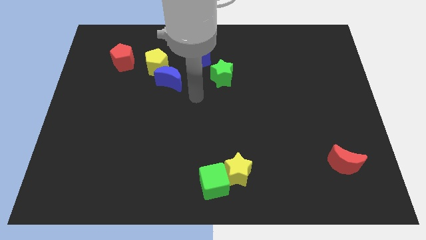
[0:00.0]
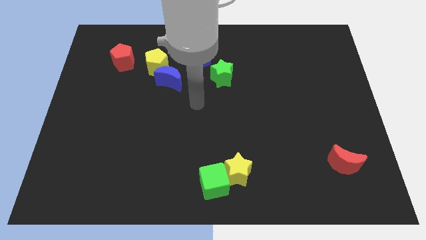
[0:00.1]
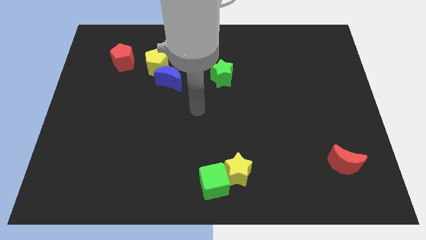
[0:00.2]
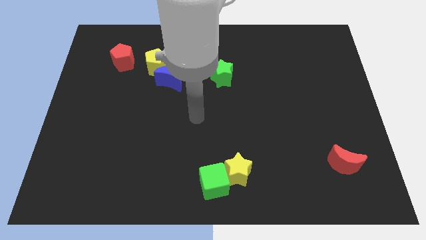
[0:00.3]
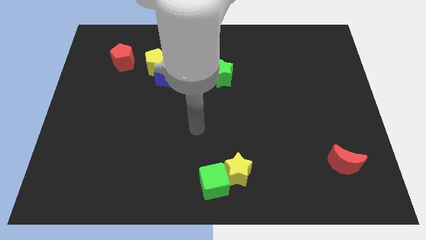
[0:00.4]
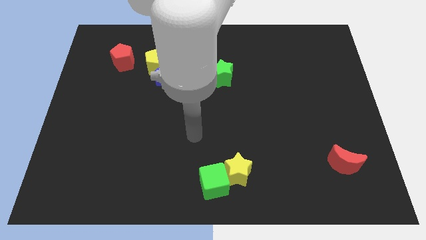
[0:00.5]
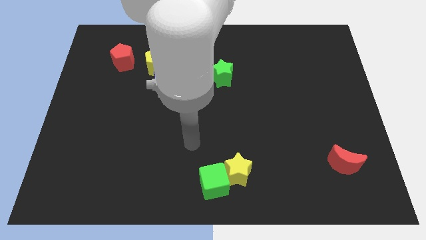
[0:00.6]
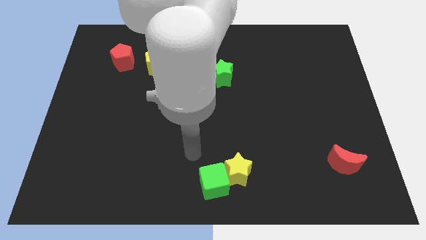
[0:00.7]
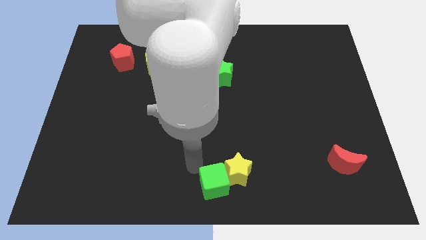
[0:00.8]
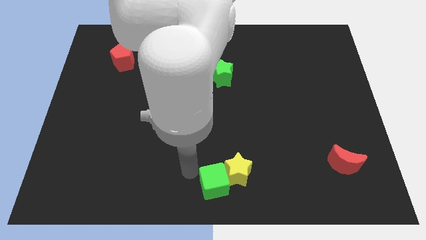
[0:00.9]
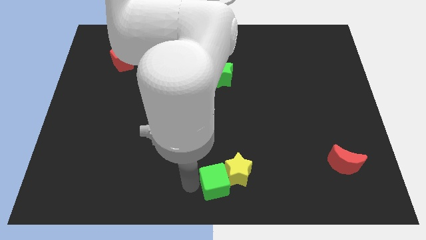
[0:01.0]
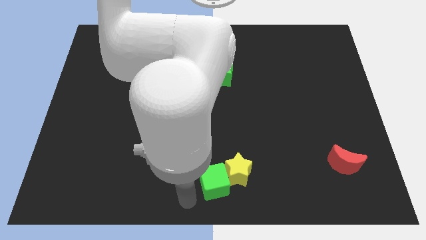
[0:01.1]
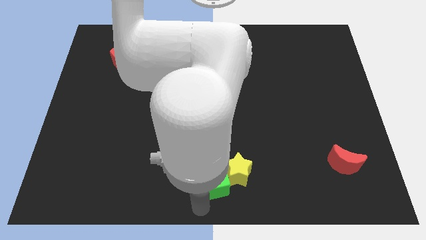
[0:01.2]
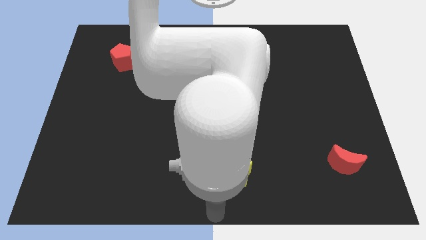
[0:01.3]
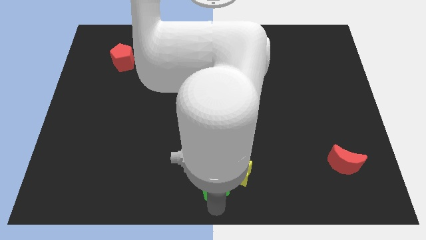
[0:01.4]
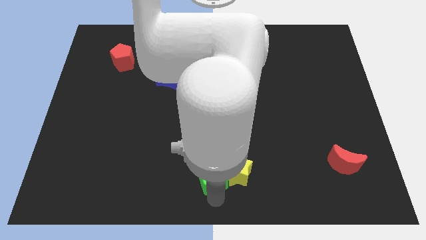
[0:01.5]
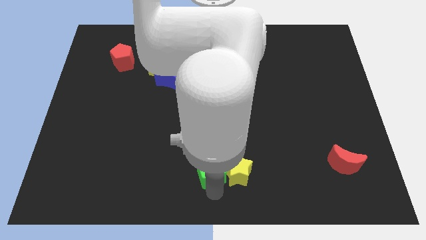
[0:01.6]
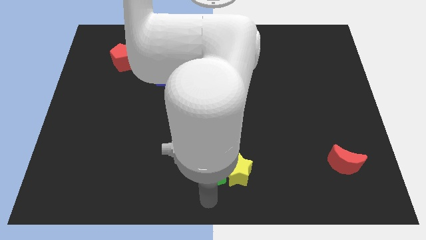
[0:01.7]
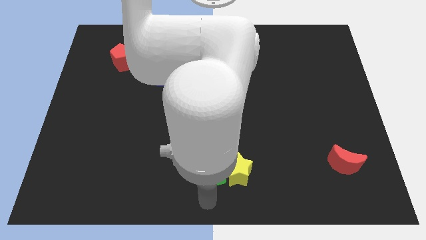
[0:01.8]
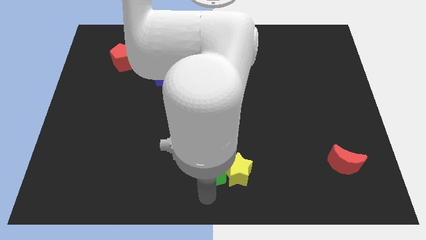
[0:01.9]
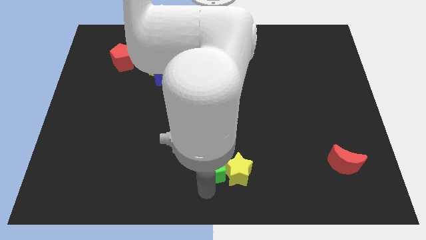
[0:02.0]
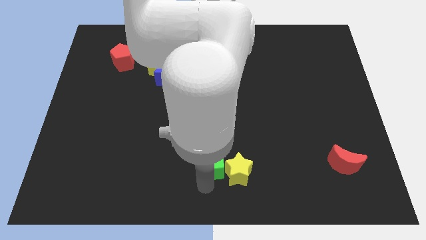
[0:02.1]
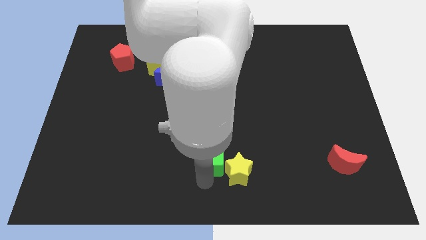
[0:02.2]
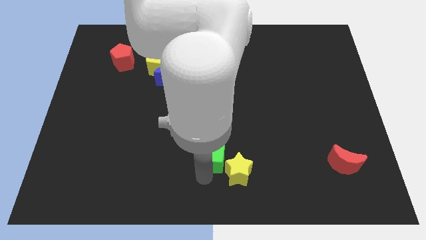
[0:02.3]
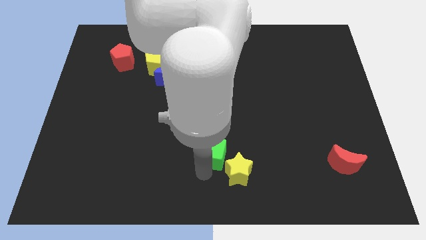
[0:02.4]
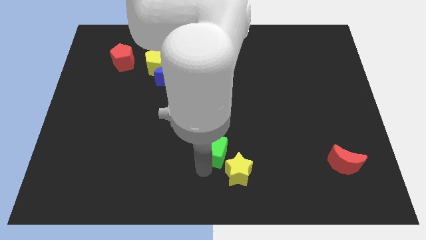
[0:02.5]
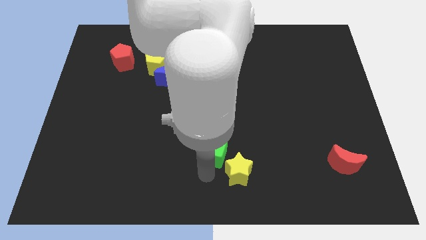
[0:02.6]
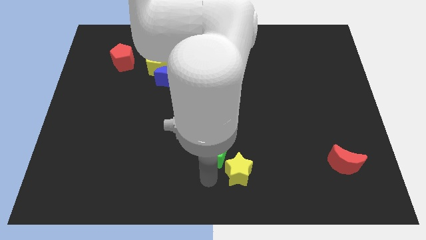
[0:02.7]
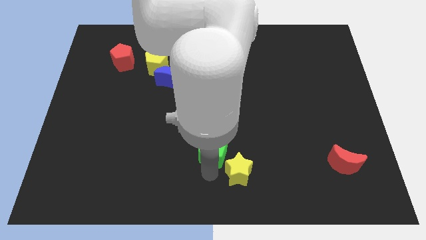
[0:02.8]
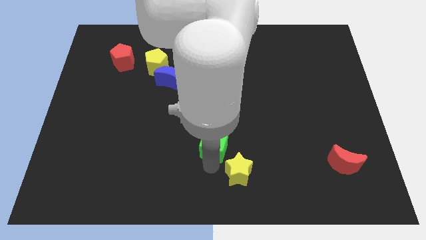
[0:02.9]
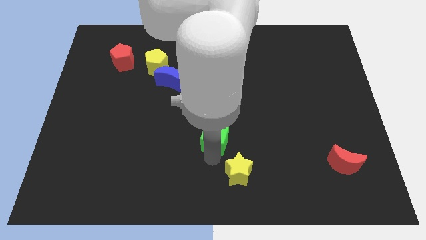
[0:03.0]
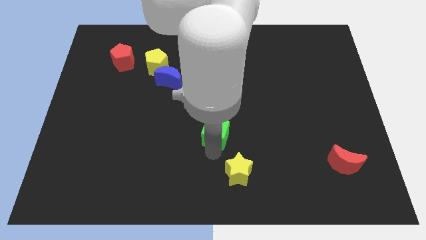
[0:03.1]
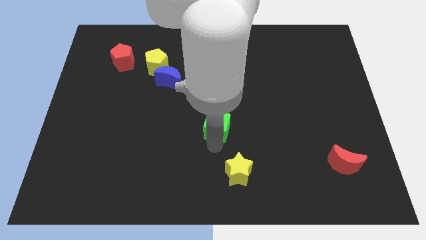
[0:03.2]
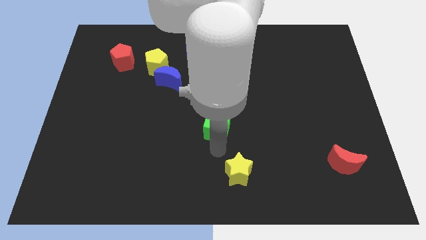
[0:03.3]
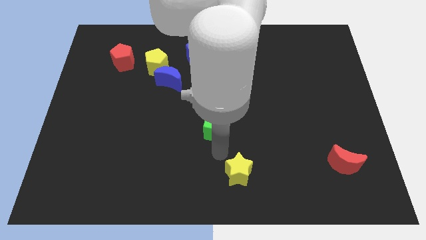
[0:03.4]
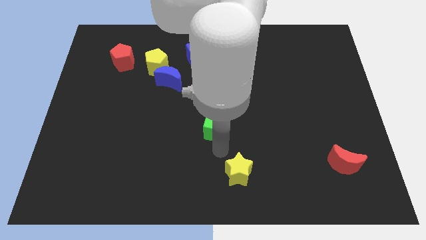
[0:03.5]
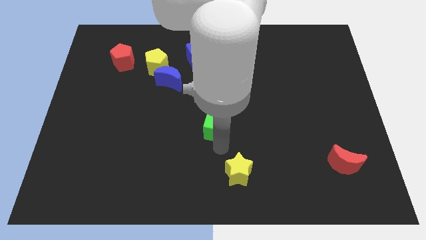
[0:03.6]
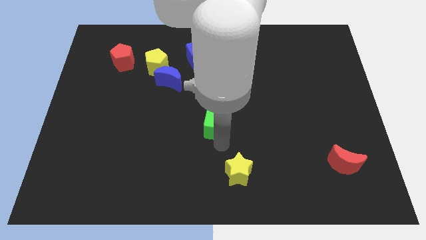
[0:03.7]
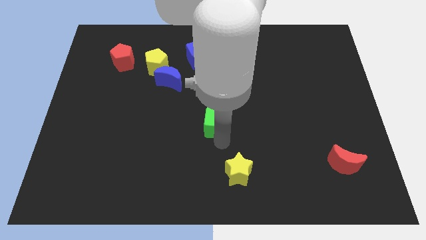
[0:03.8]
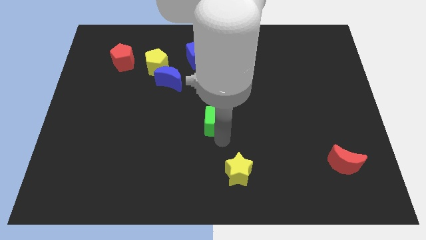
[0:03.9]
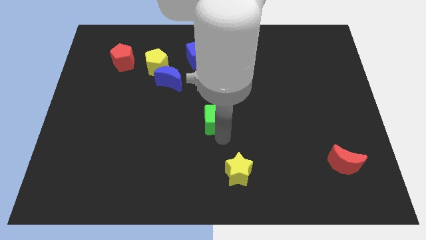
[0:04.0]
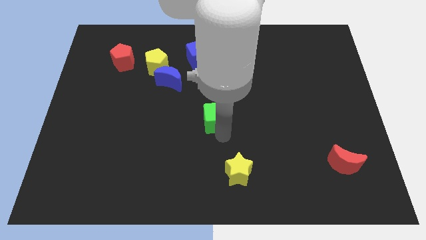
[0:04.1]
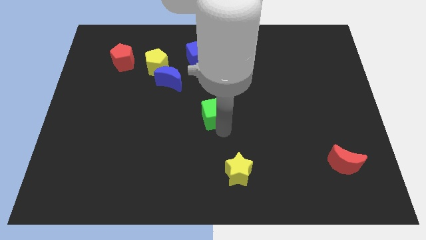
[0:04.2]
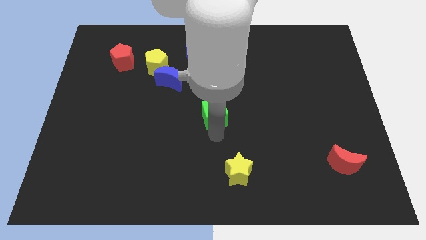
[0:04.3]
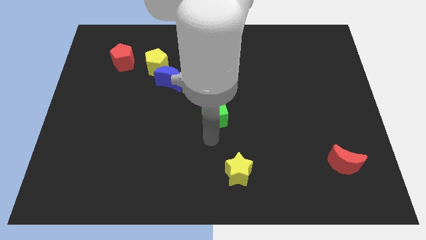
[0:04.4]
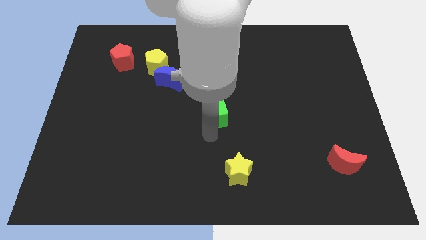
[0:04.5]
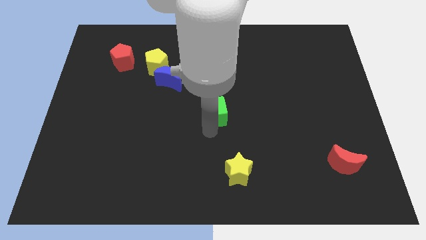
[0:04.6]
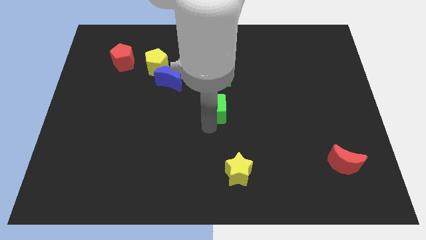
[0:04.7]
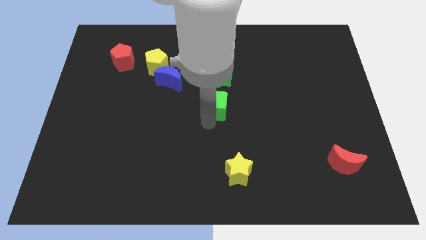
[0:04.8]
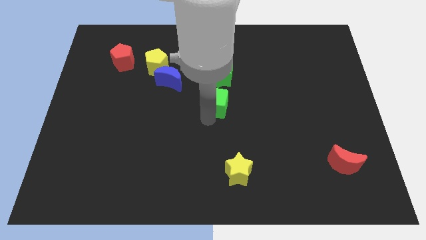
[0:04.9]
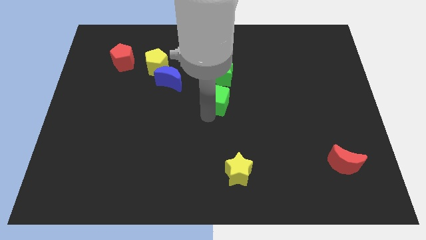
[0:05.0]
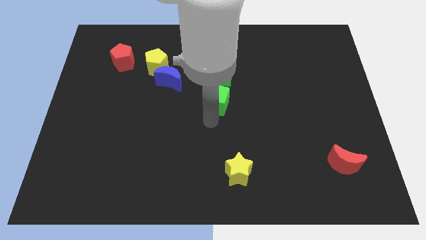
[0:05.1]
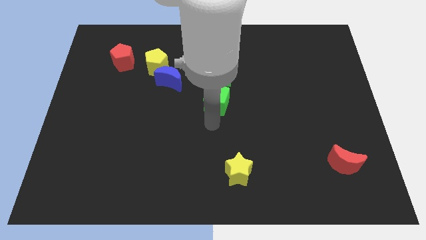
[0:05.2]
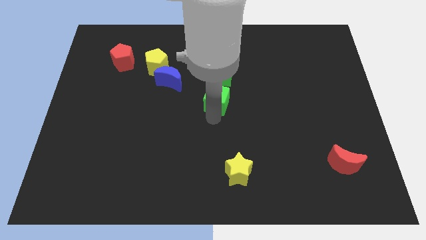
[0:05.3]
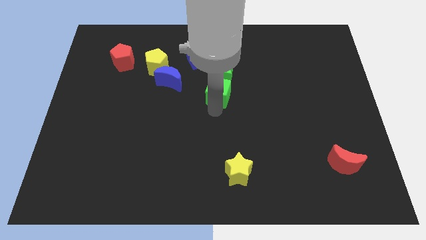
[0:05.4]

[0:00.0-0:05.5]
put the green cube close to the green star

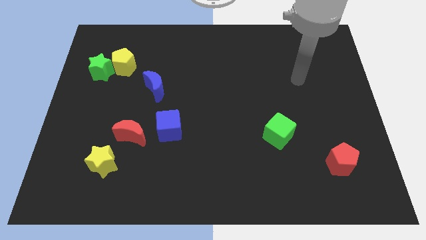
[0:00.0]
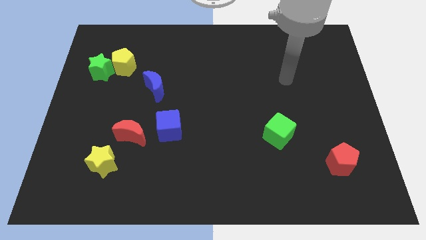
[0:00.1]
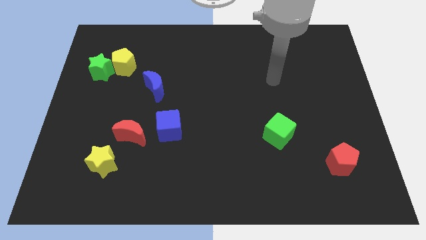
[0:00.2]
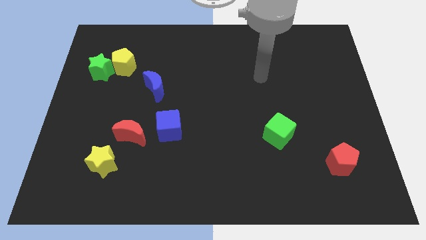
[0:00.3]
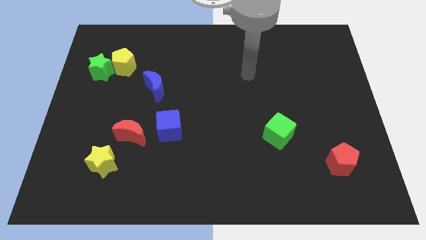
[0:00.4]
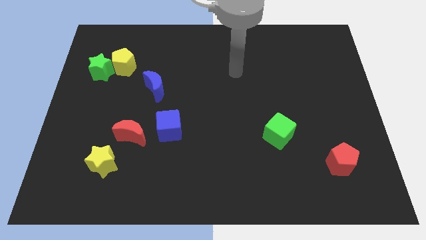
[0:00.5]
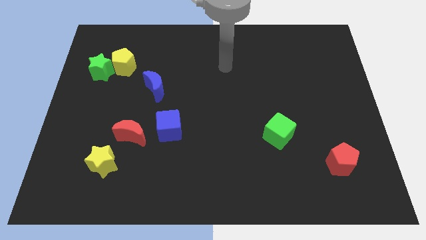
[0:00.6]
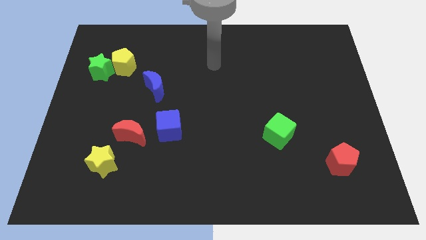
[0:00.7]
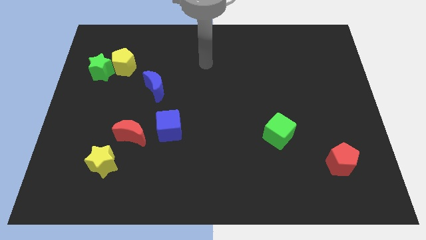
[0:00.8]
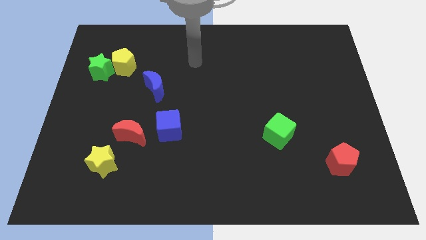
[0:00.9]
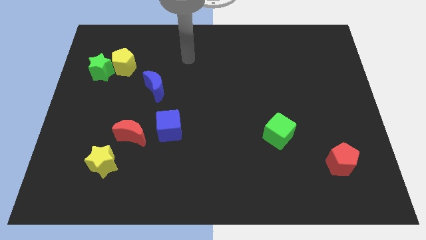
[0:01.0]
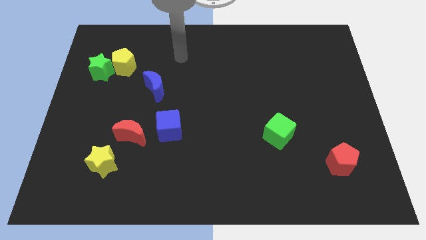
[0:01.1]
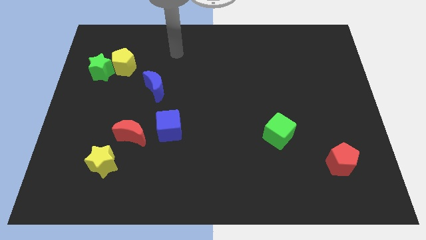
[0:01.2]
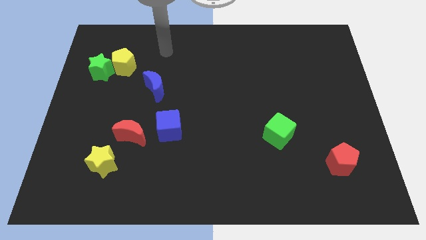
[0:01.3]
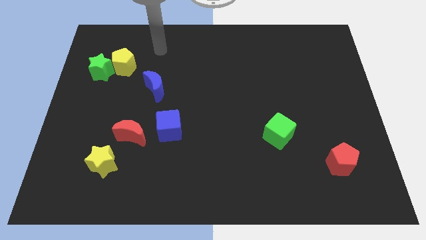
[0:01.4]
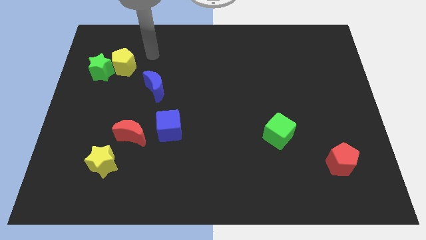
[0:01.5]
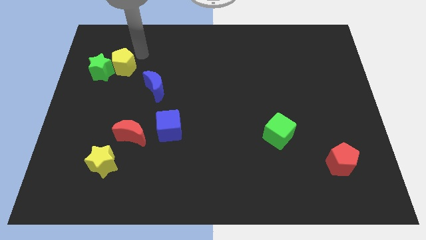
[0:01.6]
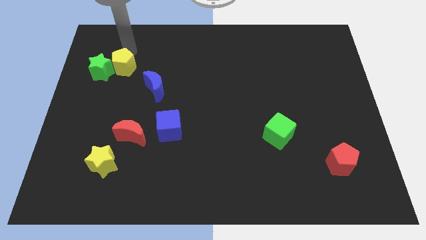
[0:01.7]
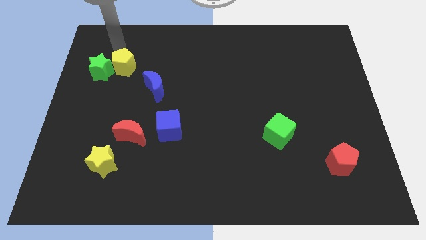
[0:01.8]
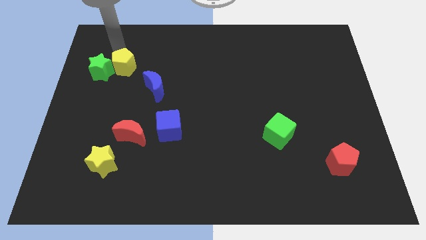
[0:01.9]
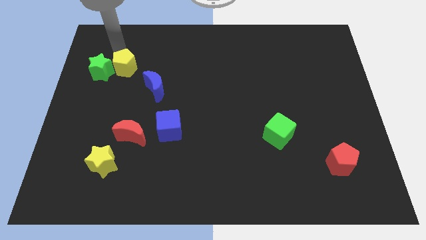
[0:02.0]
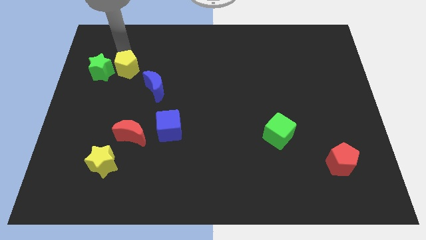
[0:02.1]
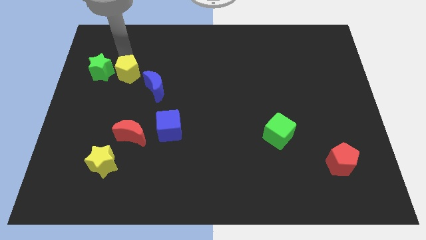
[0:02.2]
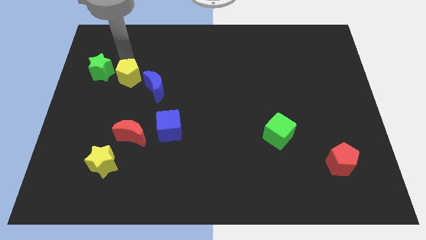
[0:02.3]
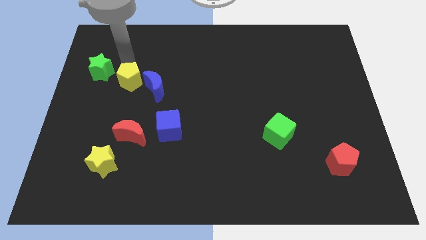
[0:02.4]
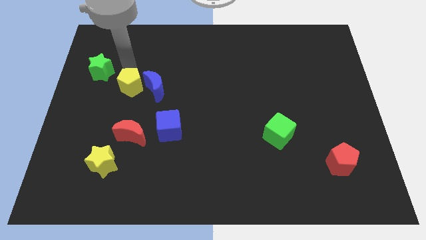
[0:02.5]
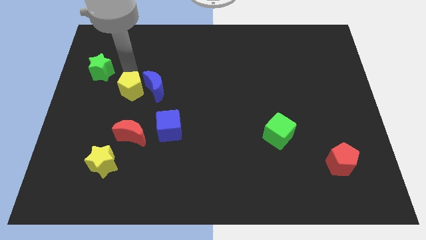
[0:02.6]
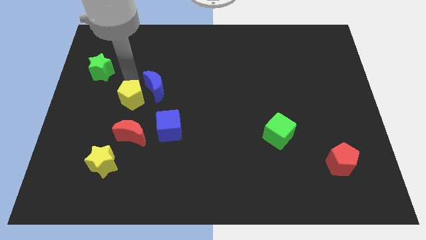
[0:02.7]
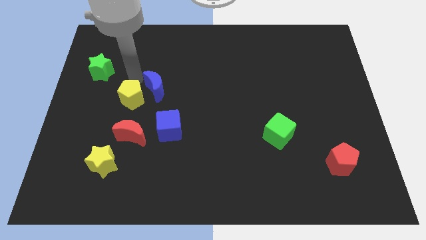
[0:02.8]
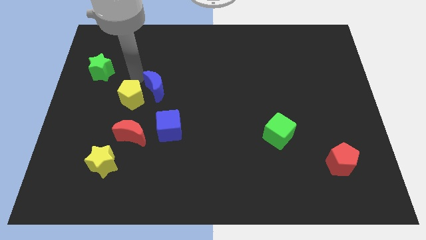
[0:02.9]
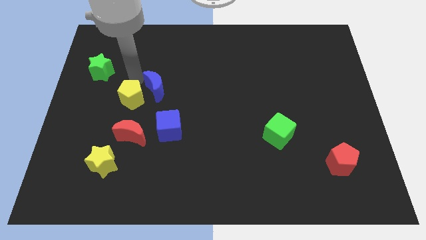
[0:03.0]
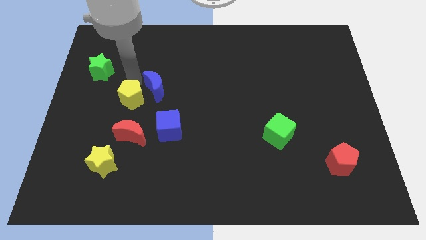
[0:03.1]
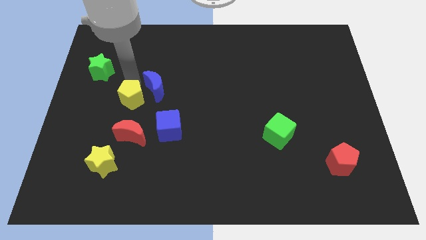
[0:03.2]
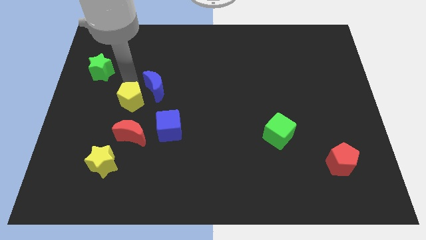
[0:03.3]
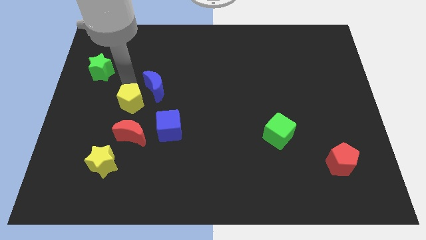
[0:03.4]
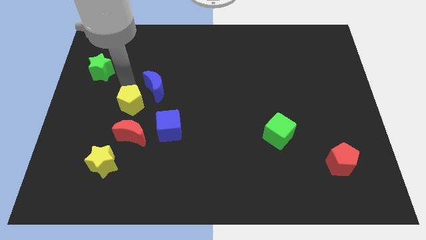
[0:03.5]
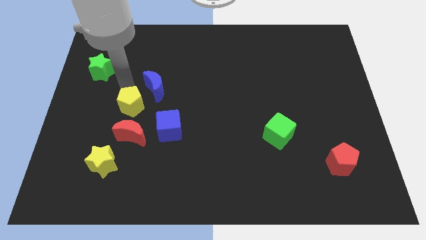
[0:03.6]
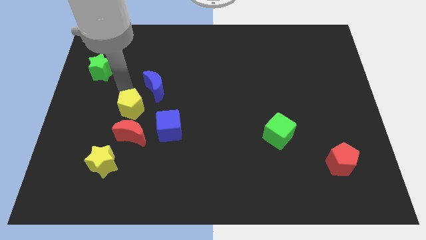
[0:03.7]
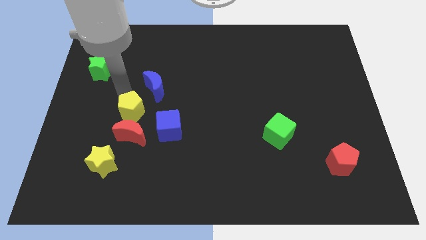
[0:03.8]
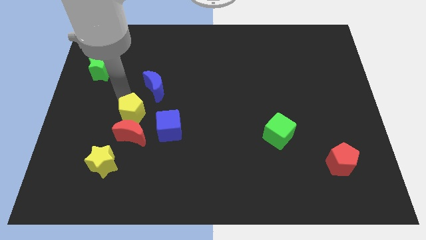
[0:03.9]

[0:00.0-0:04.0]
push the yellow pentagon next to the red moon
